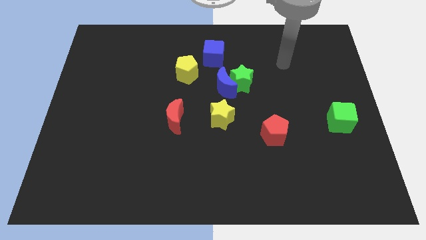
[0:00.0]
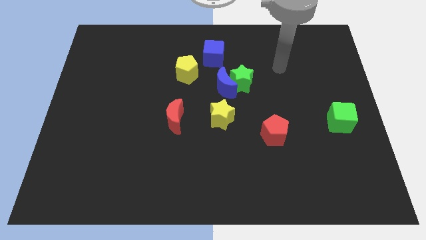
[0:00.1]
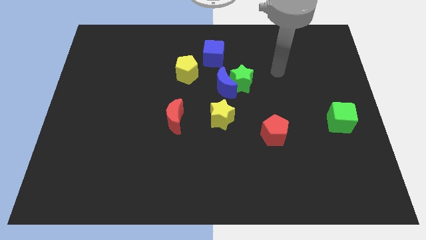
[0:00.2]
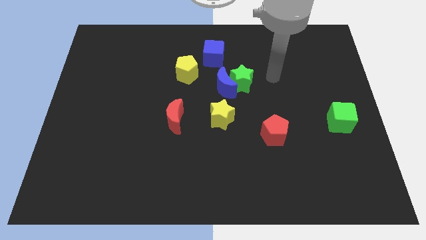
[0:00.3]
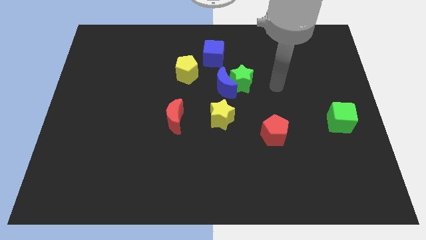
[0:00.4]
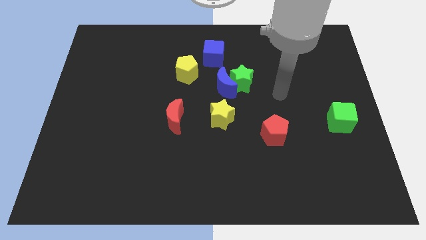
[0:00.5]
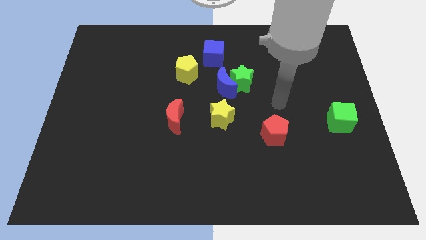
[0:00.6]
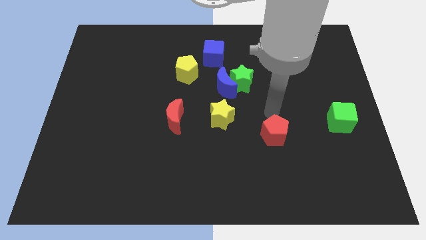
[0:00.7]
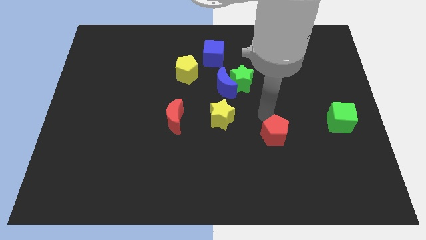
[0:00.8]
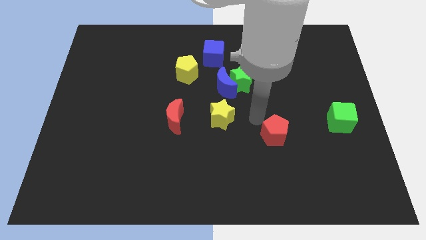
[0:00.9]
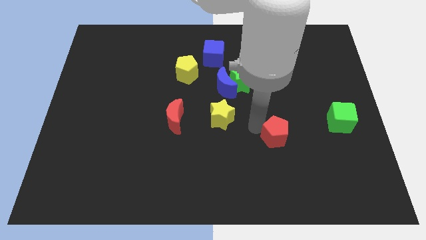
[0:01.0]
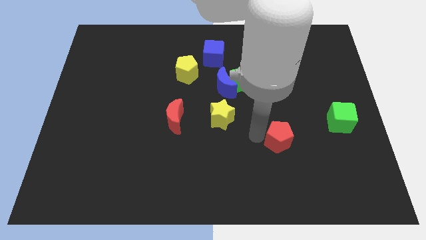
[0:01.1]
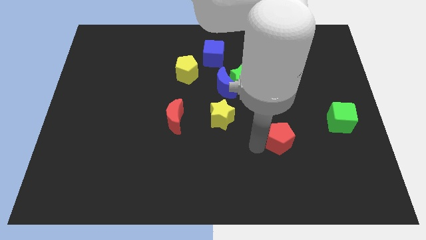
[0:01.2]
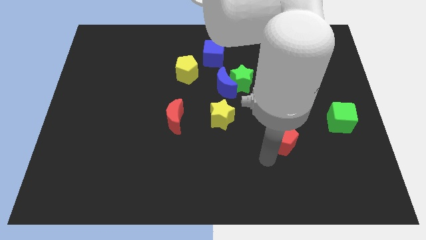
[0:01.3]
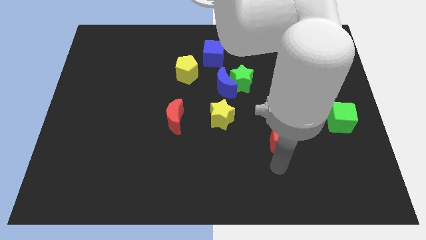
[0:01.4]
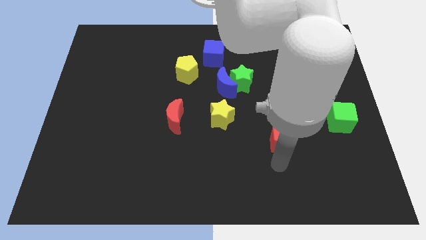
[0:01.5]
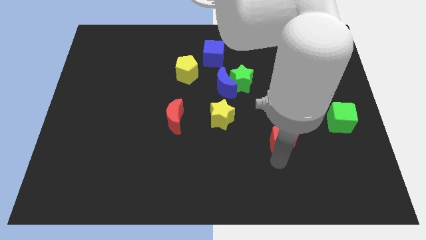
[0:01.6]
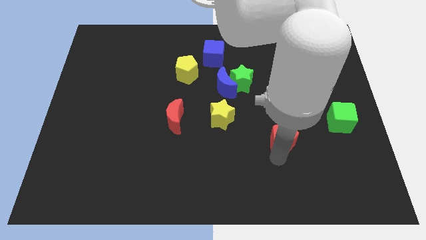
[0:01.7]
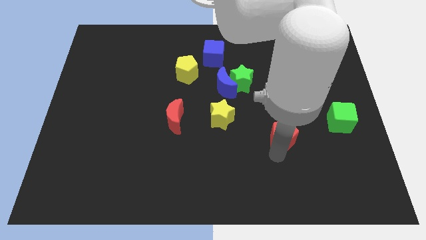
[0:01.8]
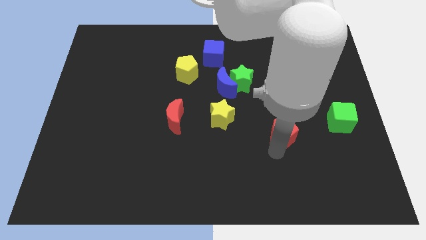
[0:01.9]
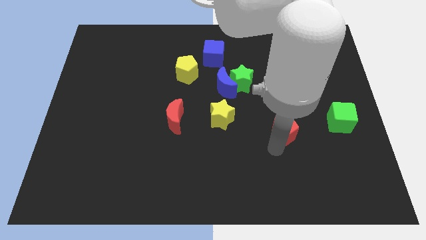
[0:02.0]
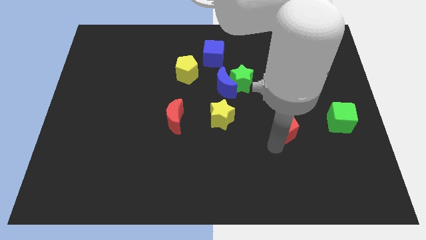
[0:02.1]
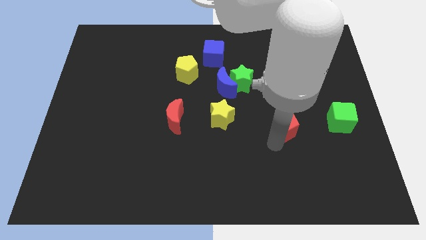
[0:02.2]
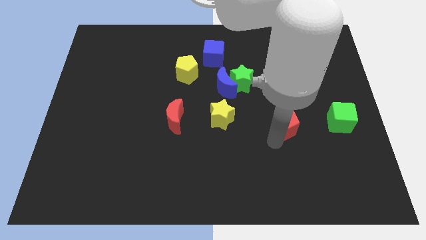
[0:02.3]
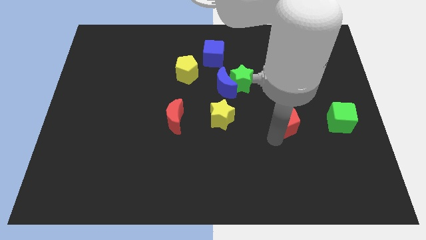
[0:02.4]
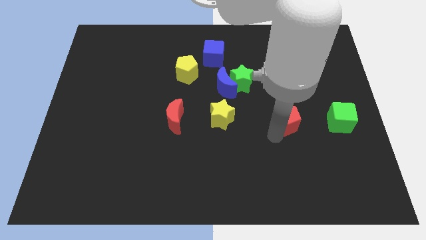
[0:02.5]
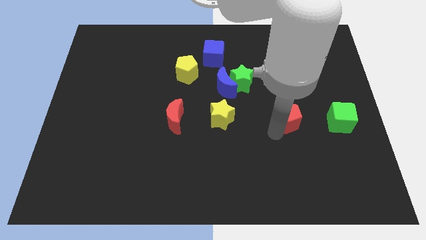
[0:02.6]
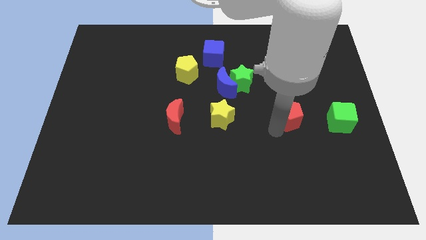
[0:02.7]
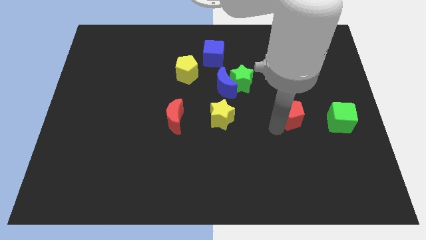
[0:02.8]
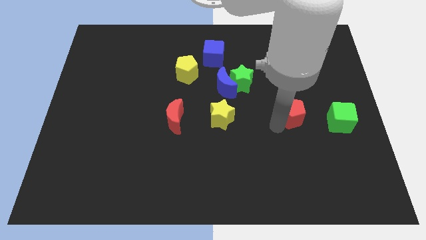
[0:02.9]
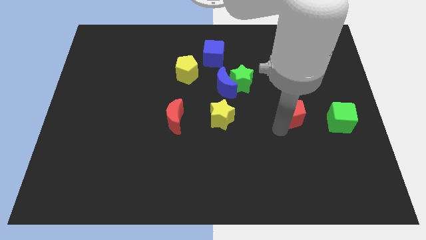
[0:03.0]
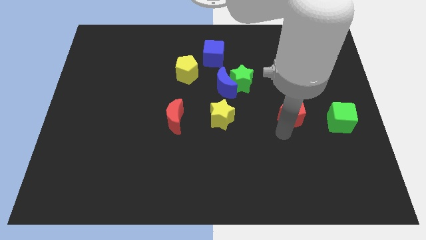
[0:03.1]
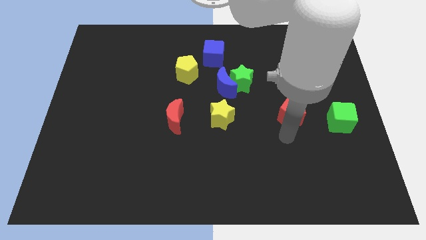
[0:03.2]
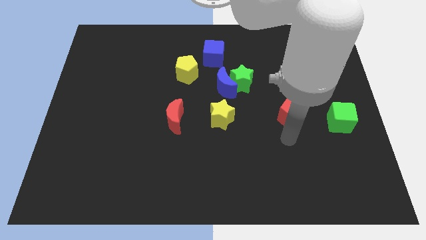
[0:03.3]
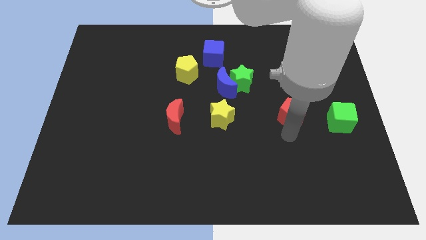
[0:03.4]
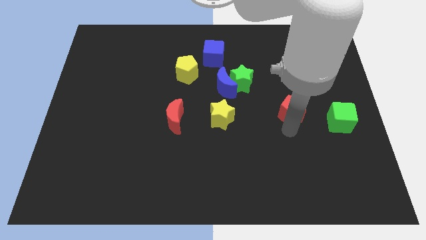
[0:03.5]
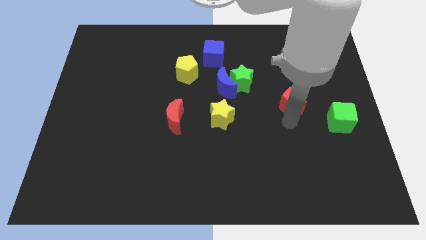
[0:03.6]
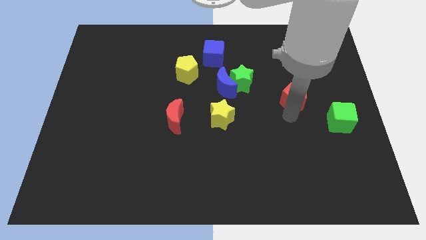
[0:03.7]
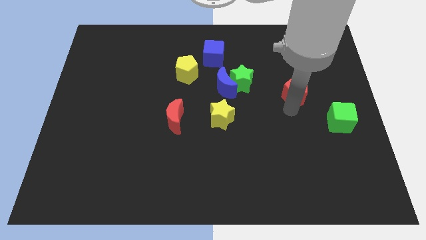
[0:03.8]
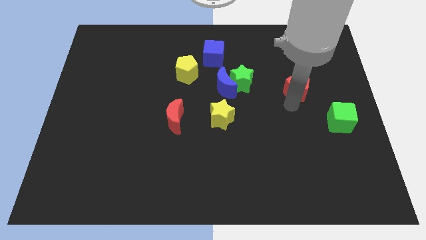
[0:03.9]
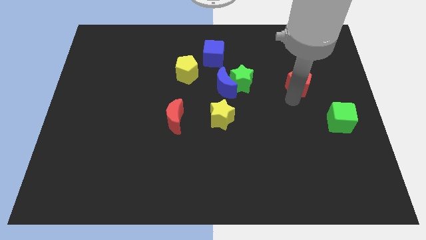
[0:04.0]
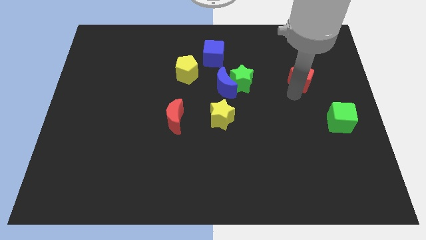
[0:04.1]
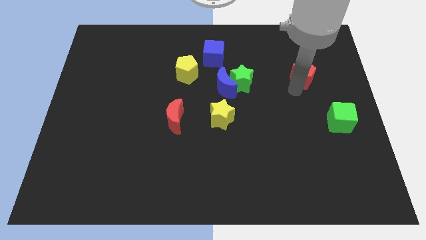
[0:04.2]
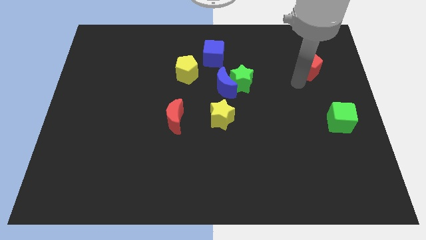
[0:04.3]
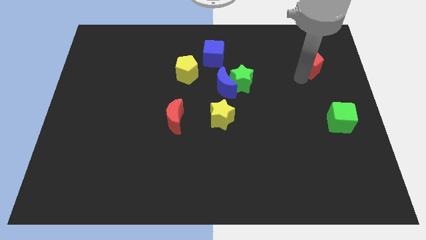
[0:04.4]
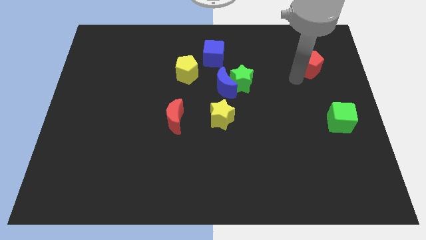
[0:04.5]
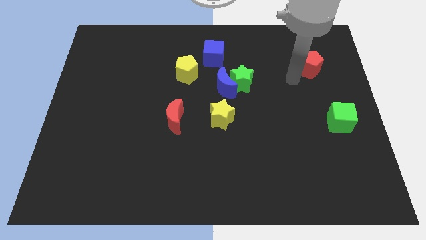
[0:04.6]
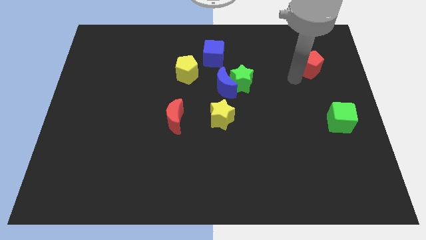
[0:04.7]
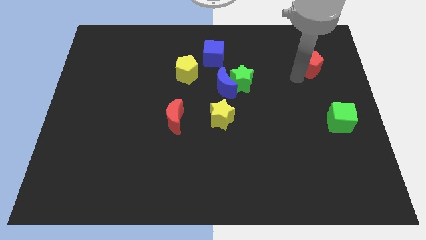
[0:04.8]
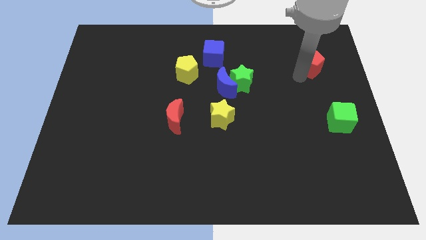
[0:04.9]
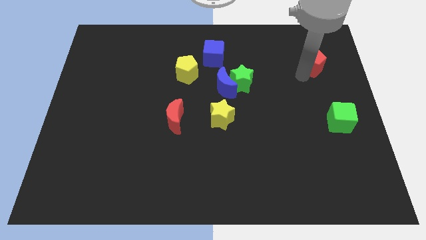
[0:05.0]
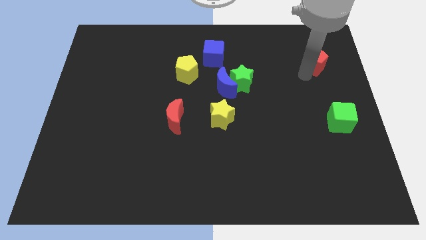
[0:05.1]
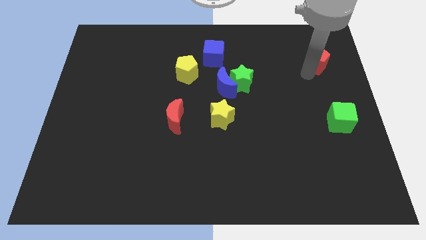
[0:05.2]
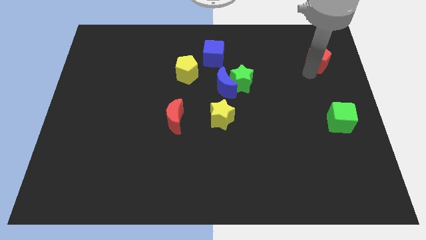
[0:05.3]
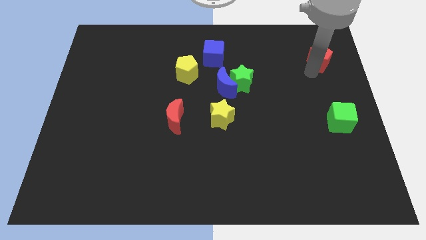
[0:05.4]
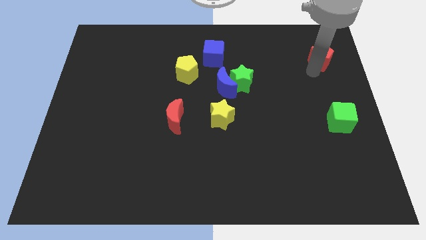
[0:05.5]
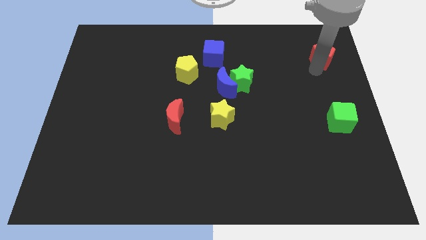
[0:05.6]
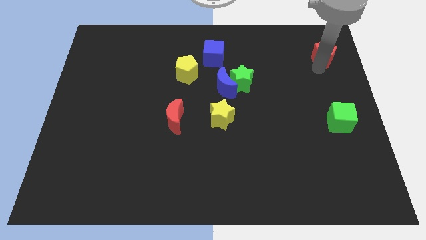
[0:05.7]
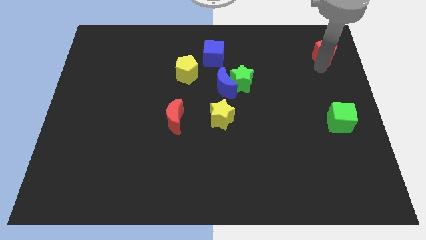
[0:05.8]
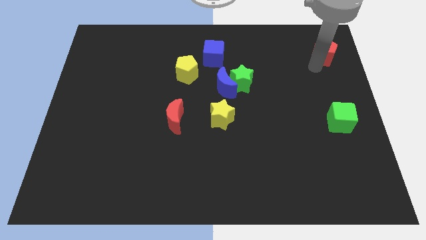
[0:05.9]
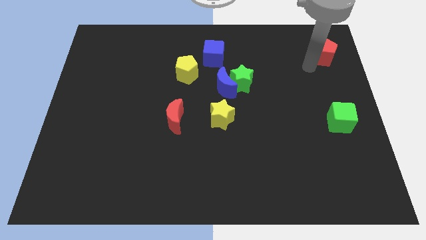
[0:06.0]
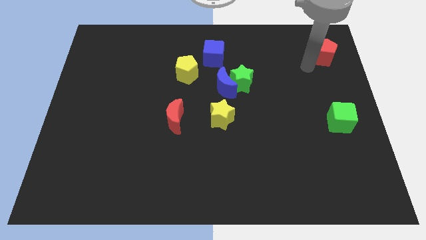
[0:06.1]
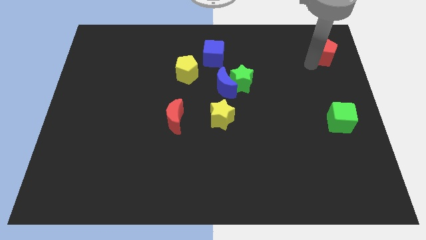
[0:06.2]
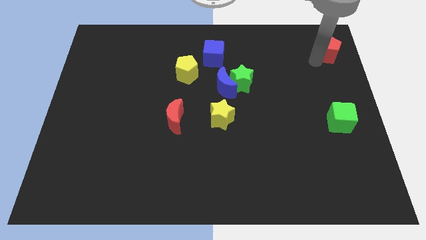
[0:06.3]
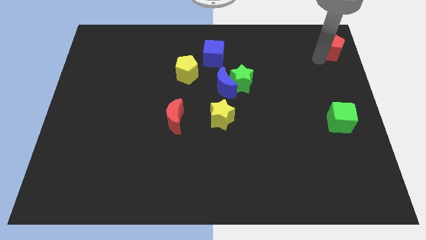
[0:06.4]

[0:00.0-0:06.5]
put the red pentagon to the top right

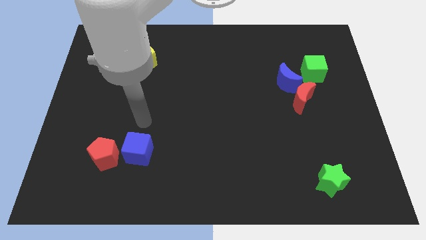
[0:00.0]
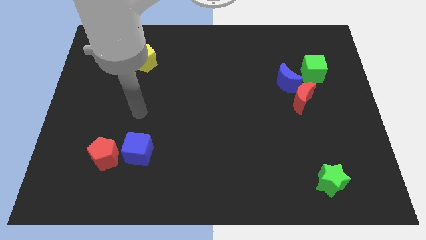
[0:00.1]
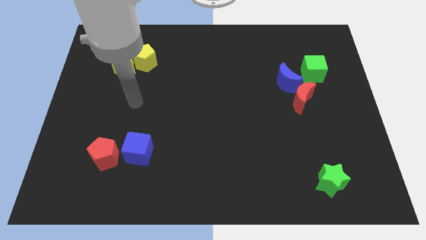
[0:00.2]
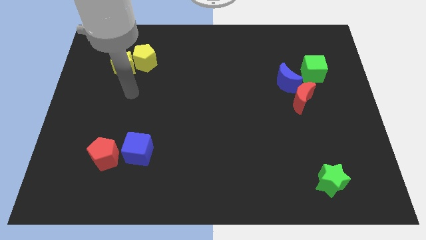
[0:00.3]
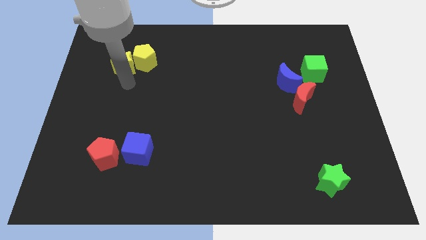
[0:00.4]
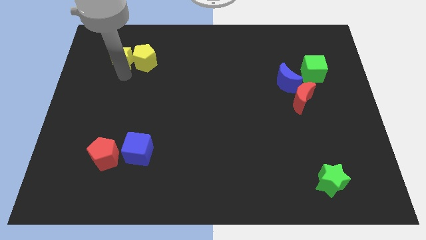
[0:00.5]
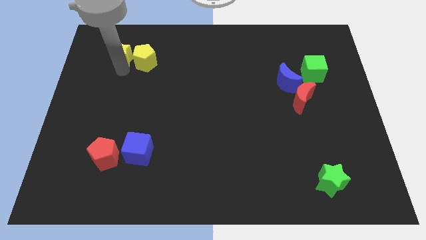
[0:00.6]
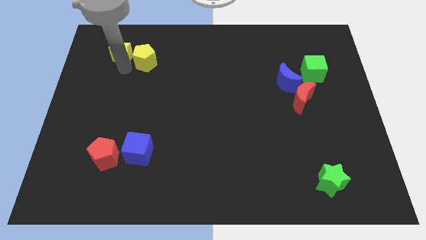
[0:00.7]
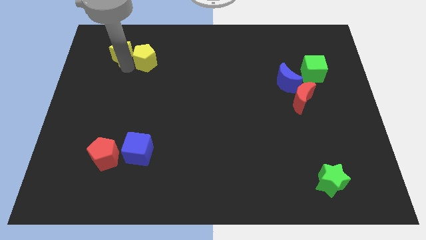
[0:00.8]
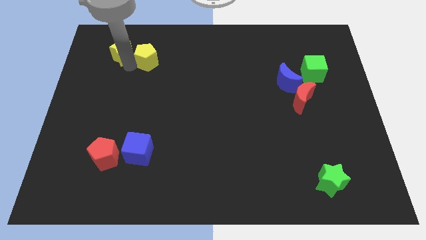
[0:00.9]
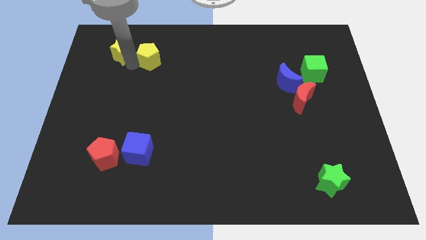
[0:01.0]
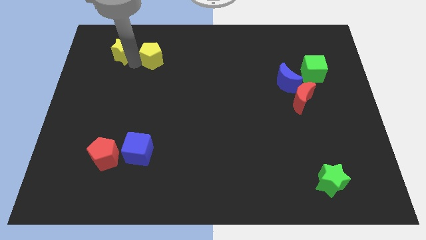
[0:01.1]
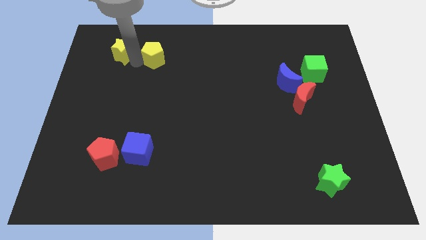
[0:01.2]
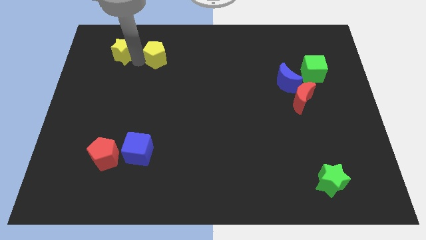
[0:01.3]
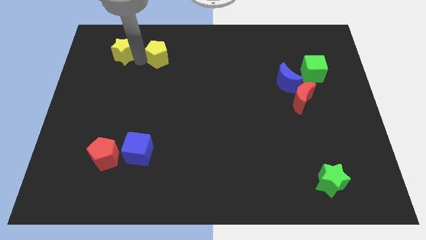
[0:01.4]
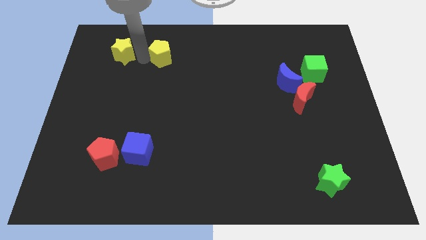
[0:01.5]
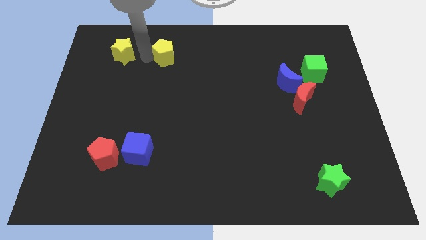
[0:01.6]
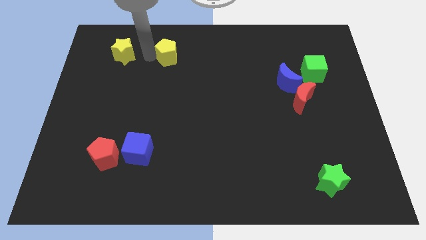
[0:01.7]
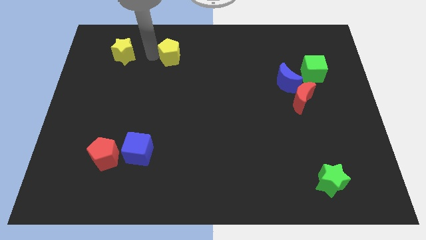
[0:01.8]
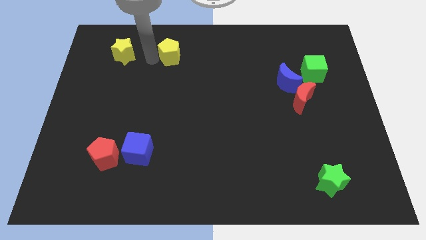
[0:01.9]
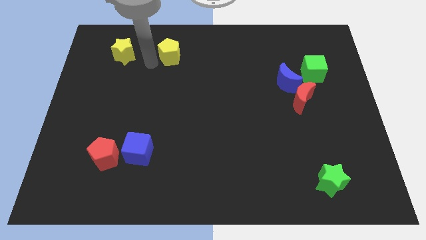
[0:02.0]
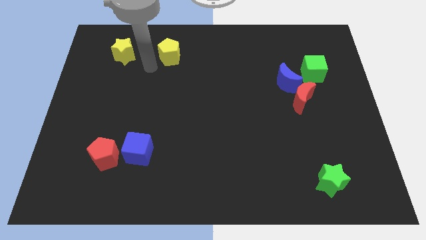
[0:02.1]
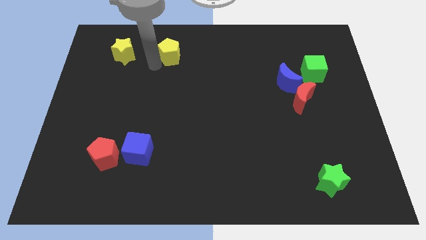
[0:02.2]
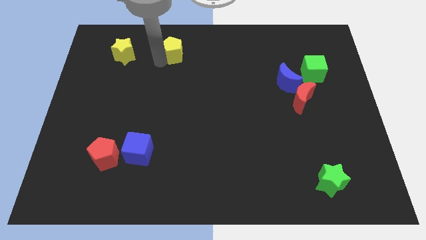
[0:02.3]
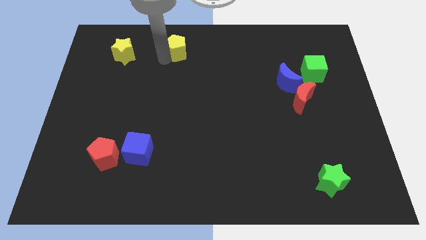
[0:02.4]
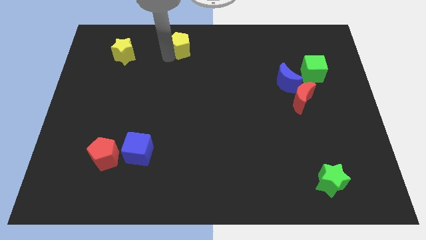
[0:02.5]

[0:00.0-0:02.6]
push the yellow pentagon to the top side
